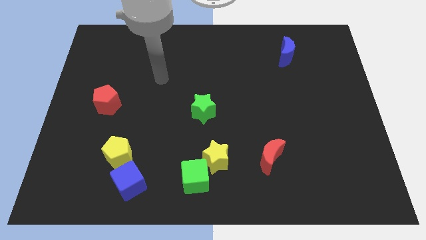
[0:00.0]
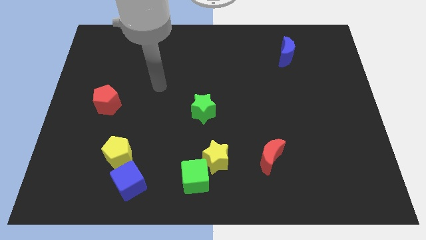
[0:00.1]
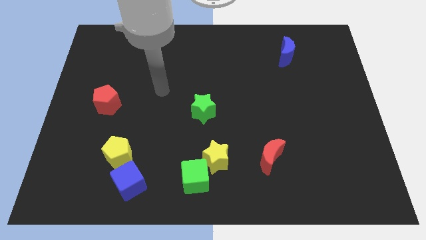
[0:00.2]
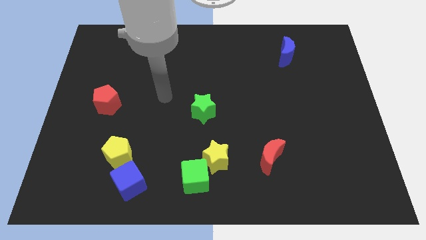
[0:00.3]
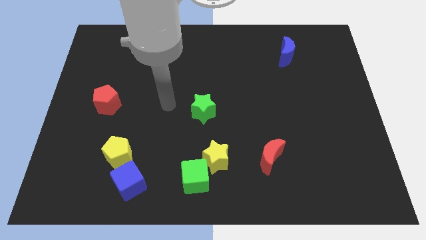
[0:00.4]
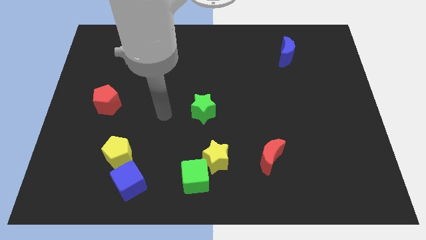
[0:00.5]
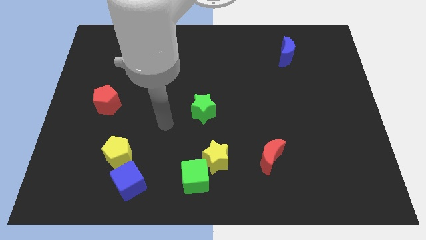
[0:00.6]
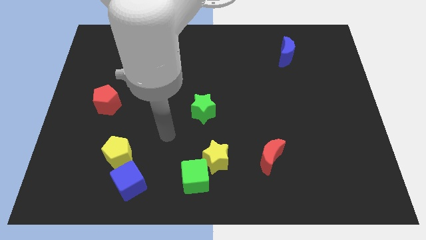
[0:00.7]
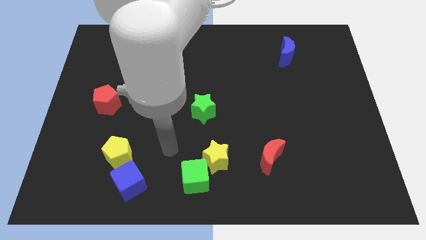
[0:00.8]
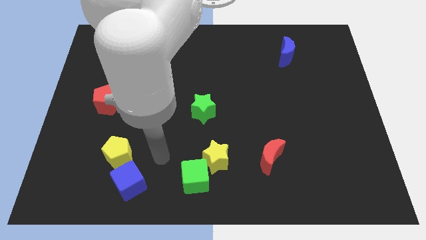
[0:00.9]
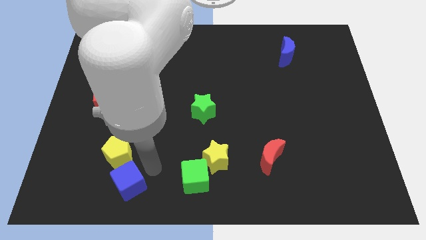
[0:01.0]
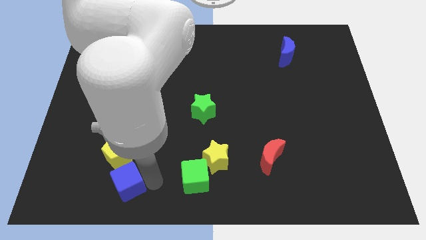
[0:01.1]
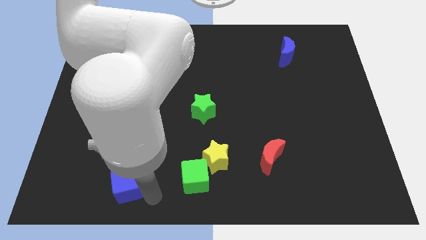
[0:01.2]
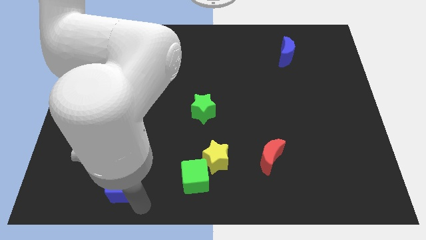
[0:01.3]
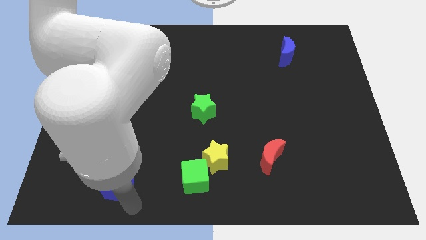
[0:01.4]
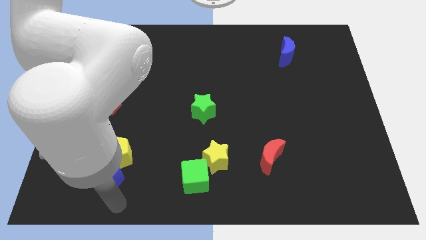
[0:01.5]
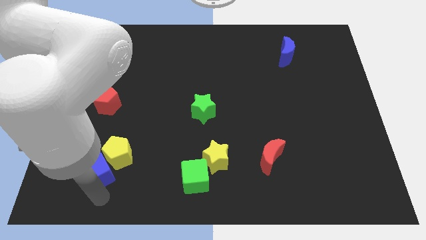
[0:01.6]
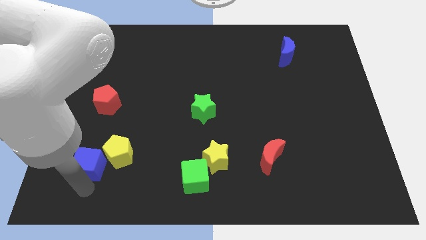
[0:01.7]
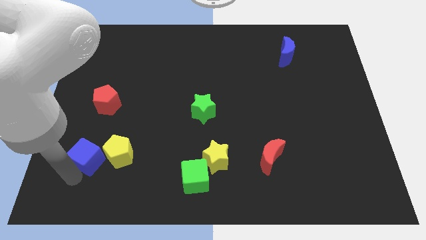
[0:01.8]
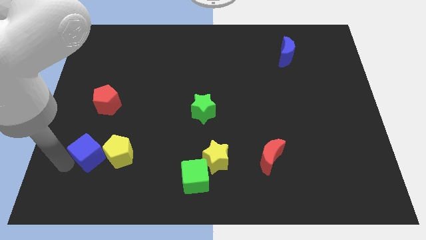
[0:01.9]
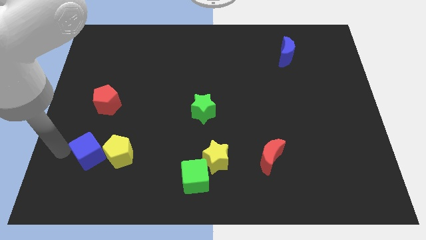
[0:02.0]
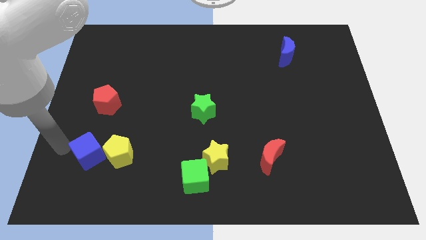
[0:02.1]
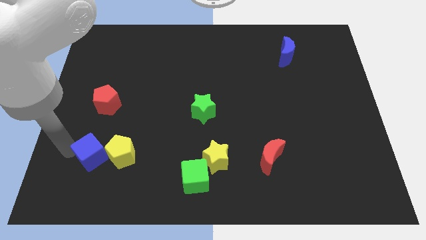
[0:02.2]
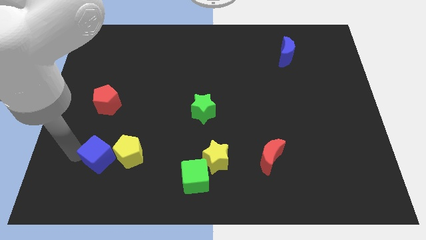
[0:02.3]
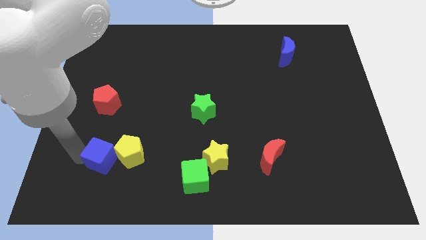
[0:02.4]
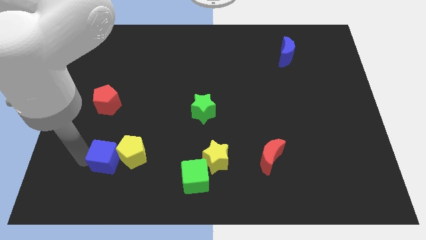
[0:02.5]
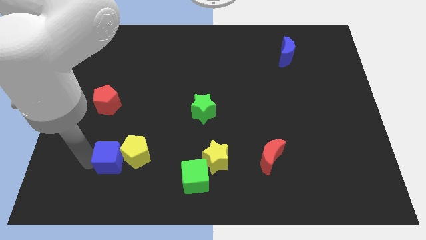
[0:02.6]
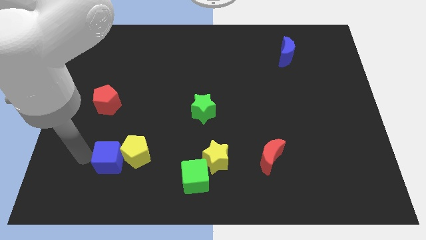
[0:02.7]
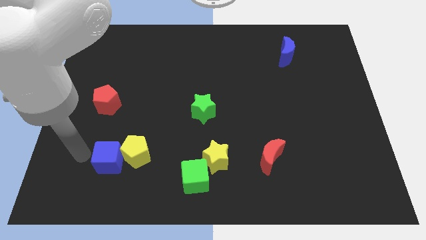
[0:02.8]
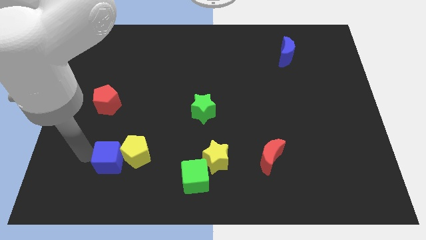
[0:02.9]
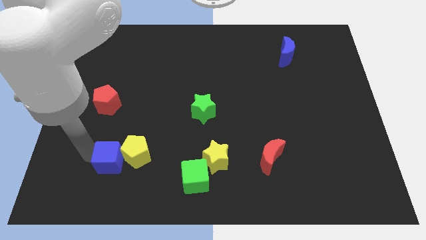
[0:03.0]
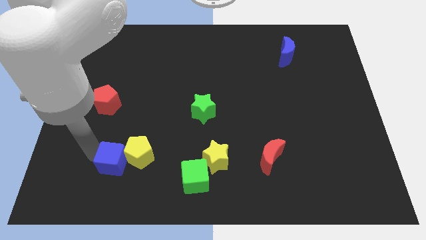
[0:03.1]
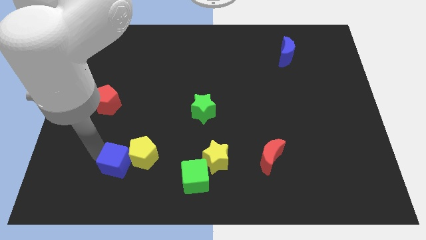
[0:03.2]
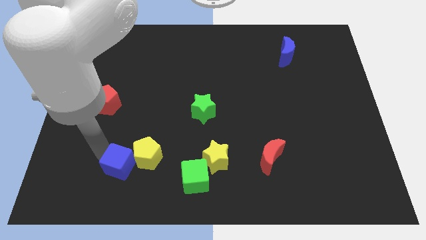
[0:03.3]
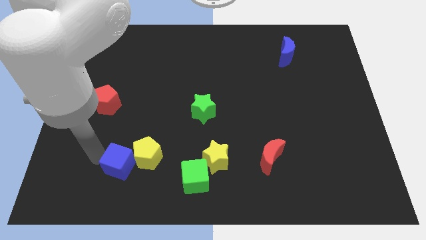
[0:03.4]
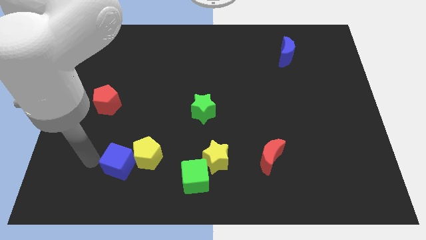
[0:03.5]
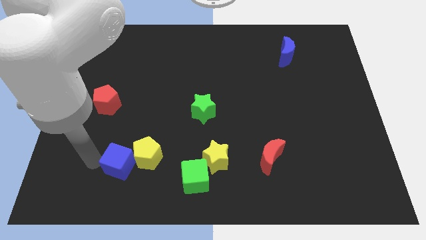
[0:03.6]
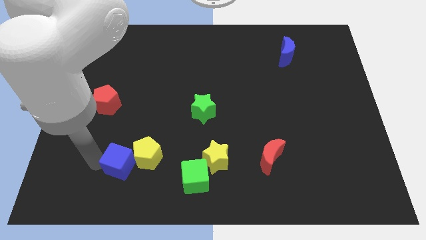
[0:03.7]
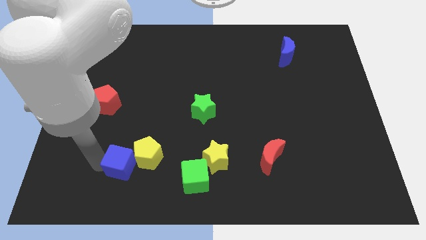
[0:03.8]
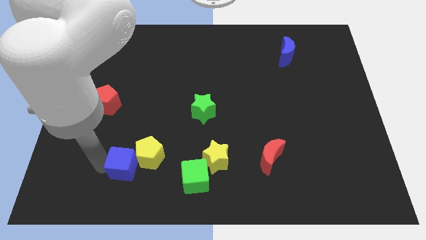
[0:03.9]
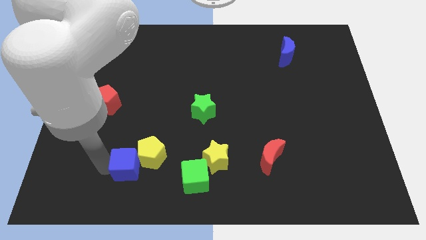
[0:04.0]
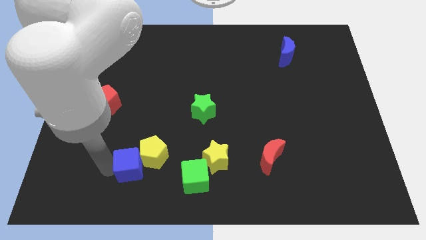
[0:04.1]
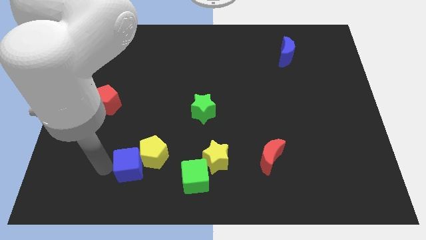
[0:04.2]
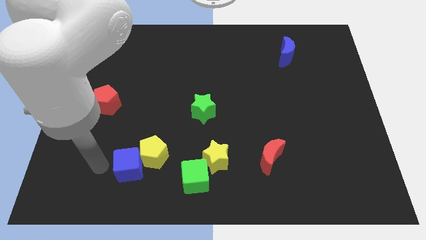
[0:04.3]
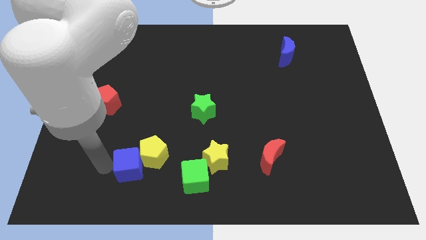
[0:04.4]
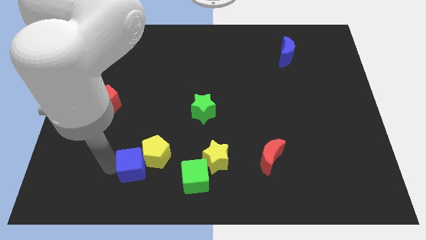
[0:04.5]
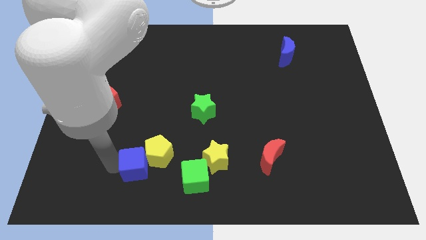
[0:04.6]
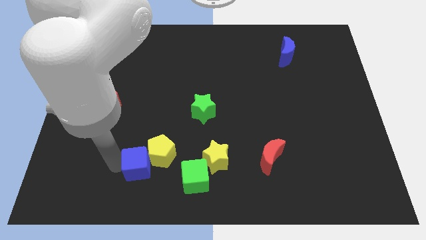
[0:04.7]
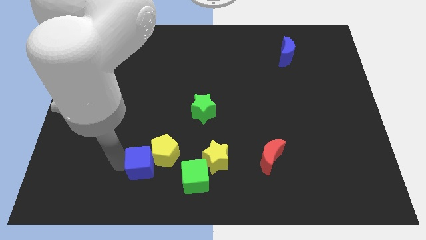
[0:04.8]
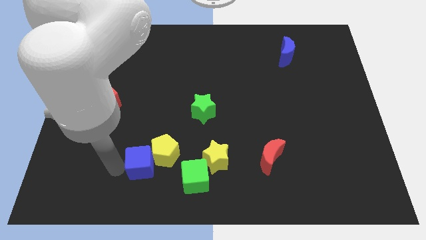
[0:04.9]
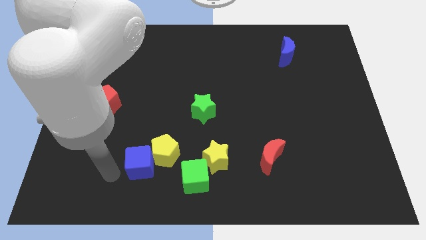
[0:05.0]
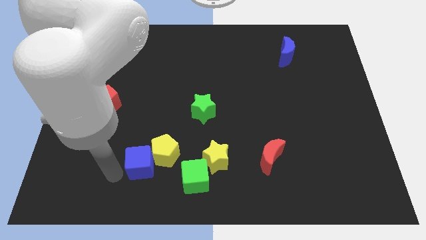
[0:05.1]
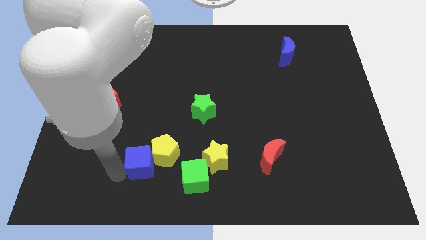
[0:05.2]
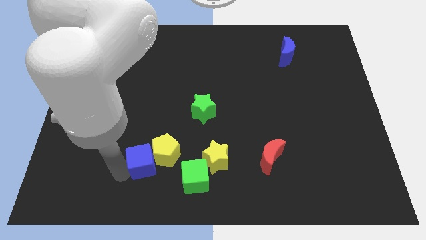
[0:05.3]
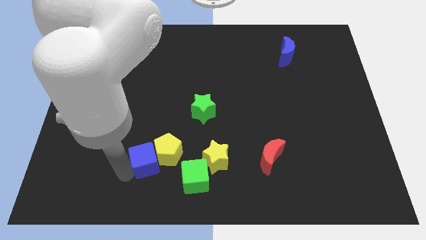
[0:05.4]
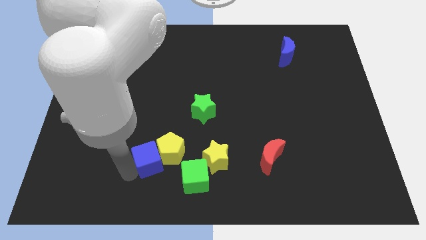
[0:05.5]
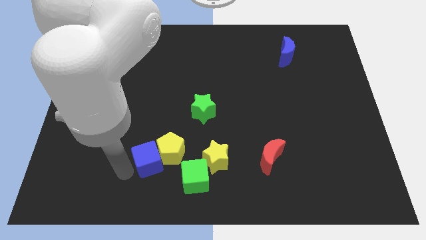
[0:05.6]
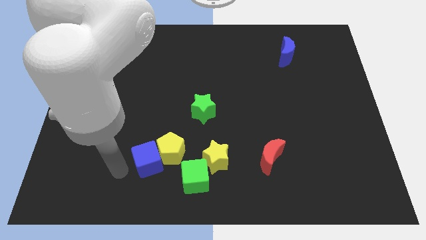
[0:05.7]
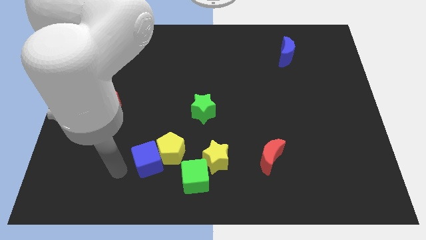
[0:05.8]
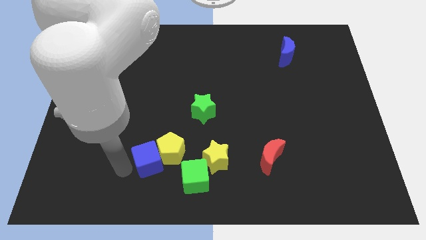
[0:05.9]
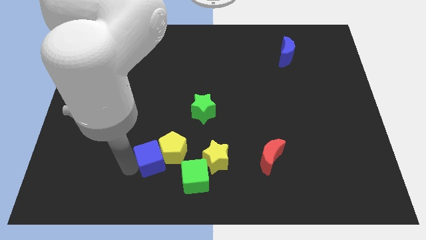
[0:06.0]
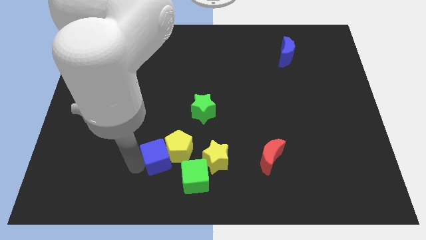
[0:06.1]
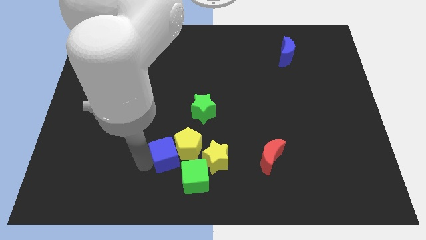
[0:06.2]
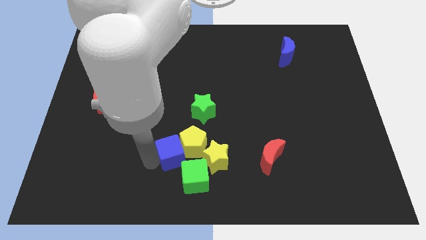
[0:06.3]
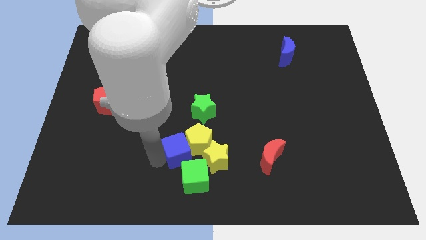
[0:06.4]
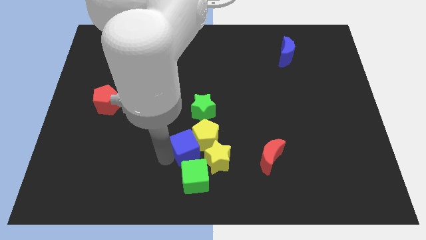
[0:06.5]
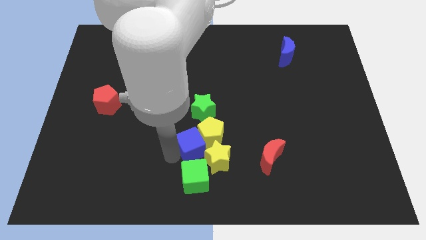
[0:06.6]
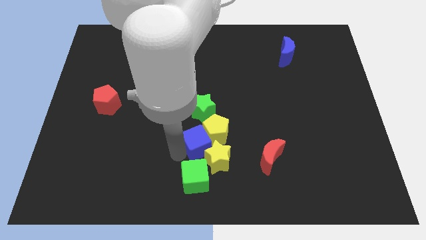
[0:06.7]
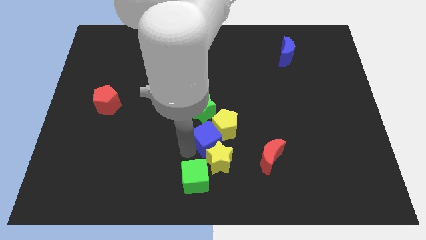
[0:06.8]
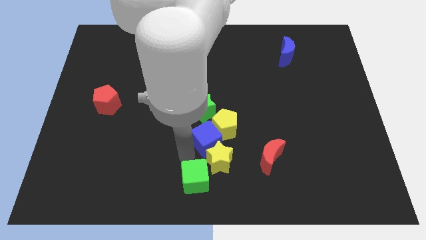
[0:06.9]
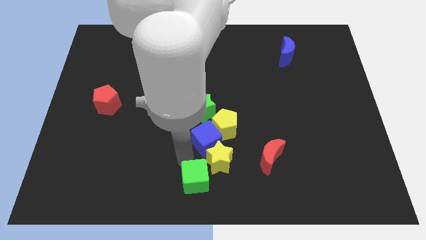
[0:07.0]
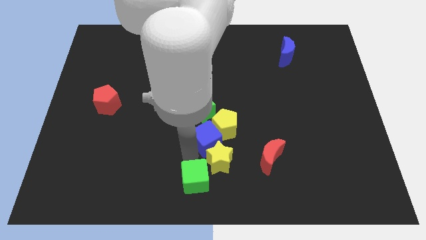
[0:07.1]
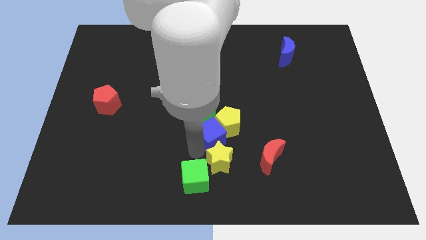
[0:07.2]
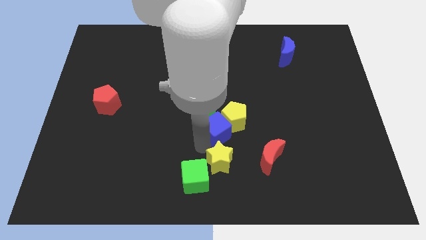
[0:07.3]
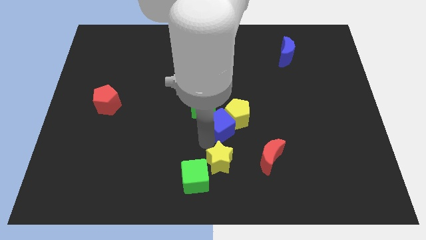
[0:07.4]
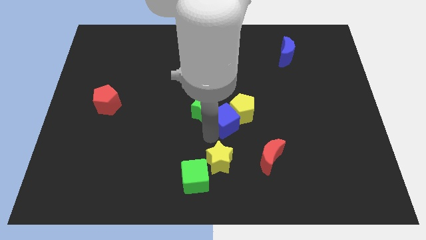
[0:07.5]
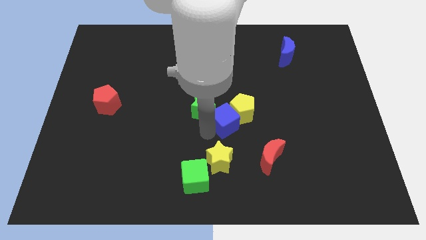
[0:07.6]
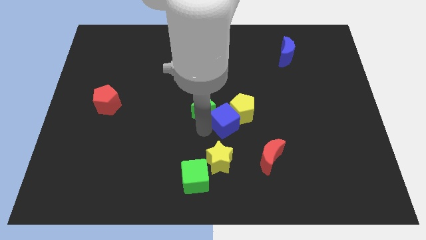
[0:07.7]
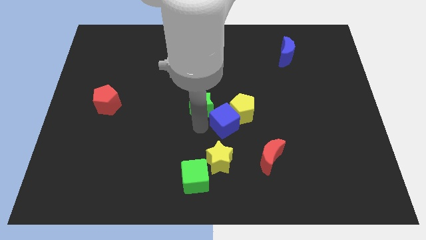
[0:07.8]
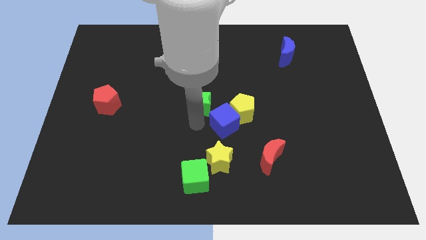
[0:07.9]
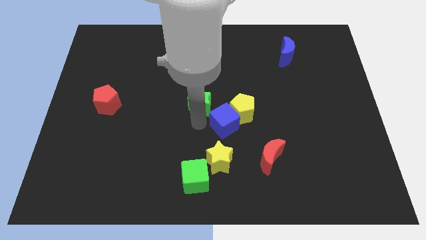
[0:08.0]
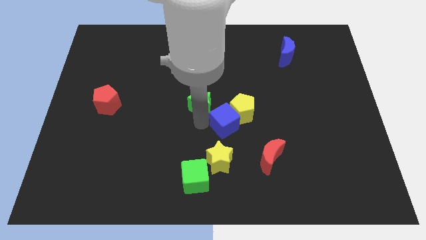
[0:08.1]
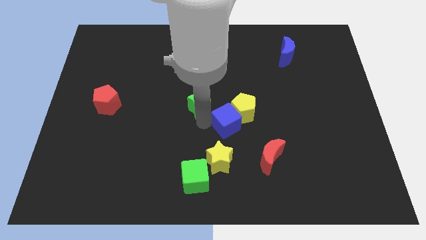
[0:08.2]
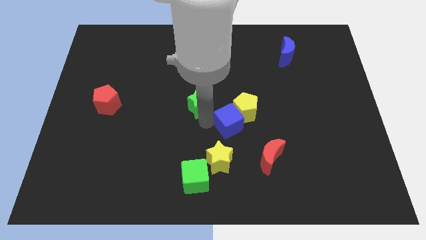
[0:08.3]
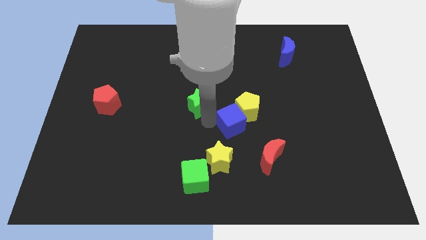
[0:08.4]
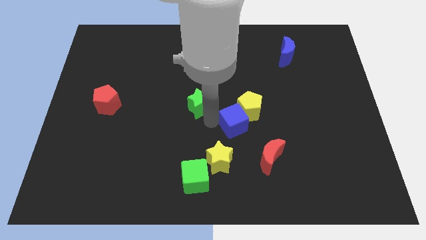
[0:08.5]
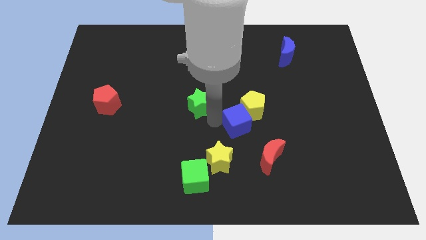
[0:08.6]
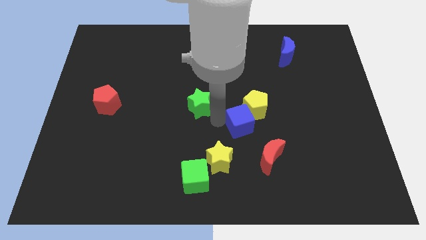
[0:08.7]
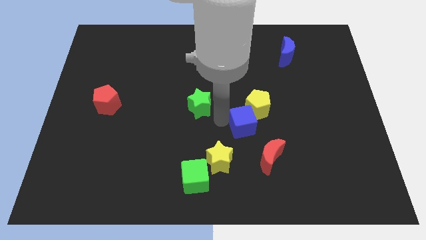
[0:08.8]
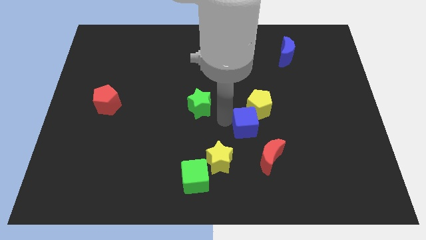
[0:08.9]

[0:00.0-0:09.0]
slide the blue cube to the top side of the red moon
